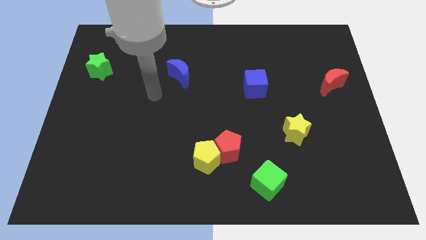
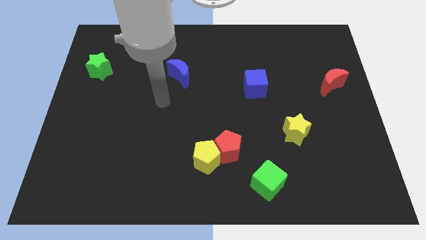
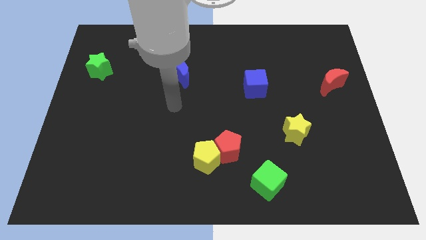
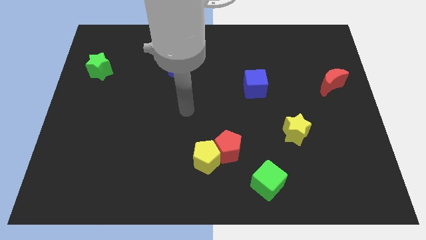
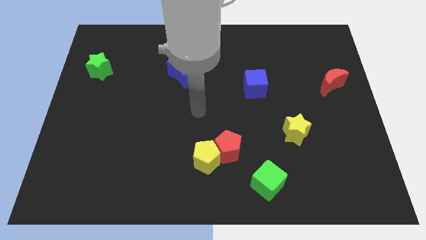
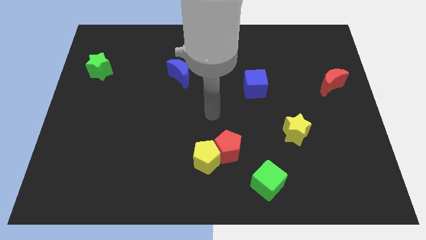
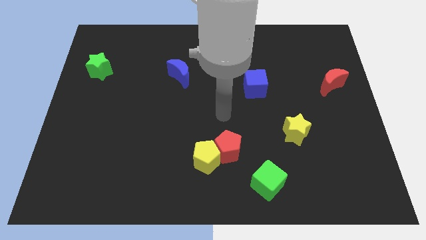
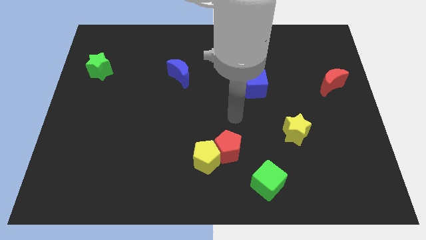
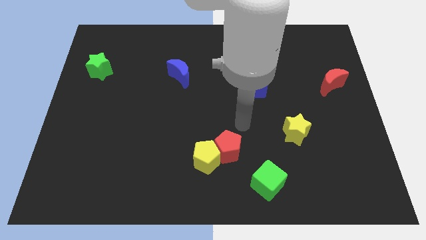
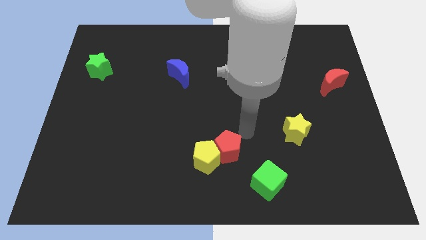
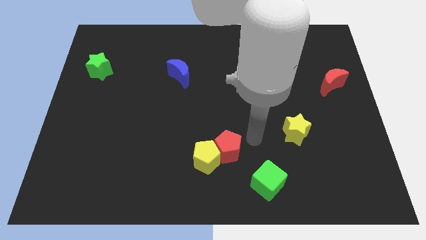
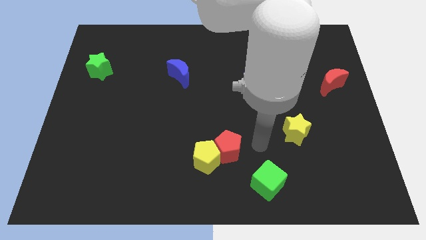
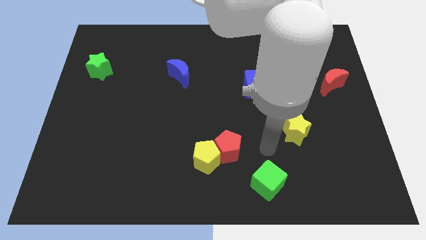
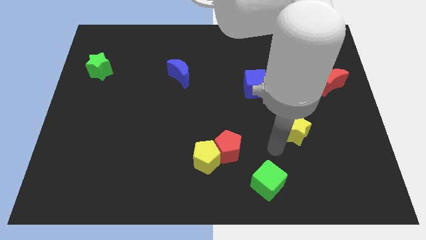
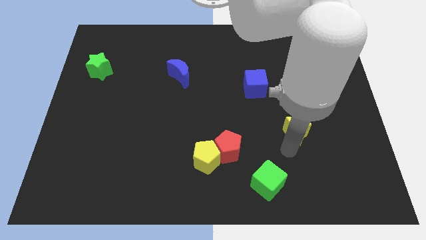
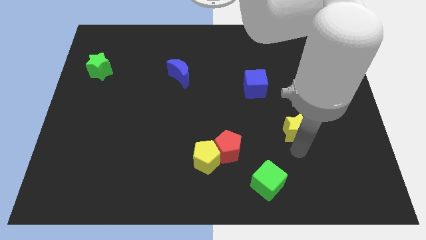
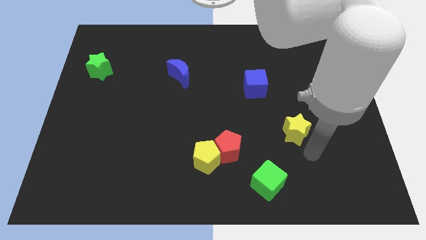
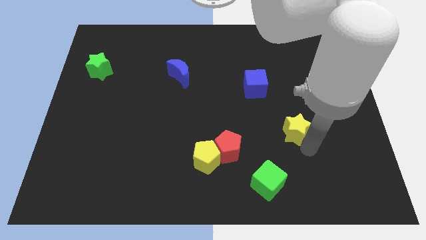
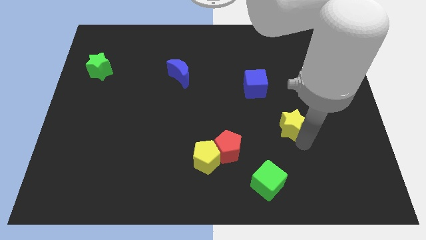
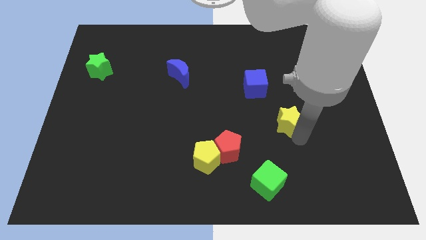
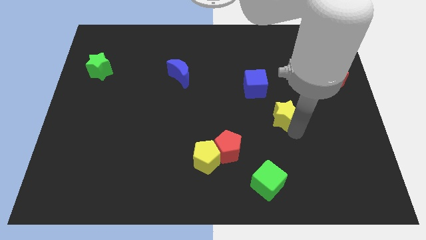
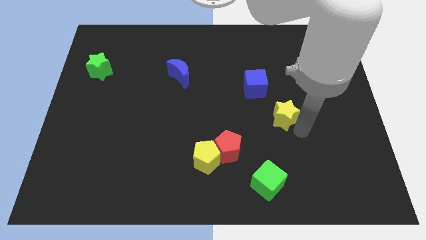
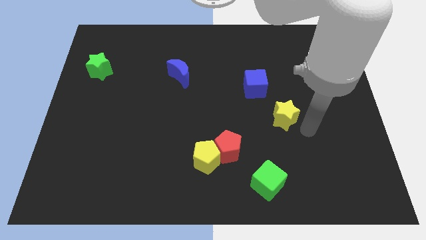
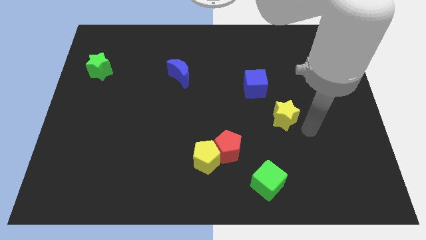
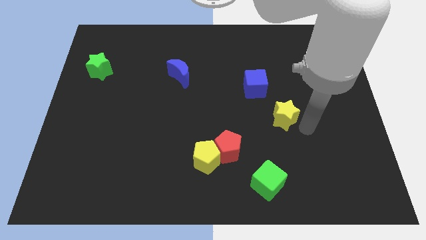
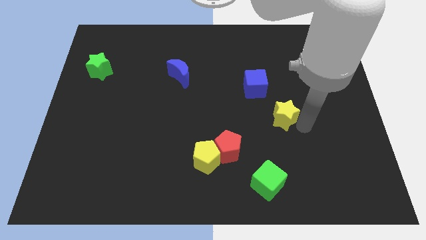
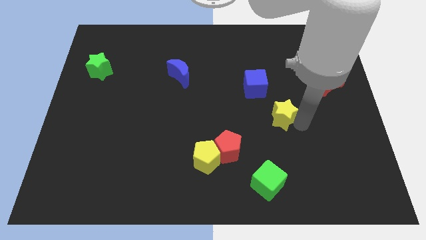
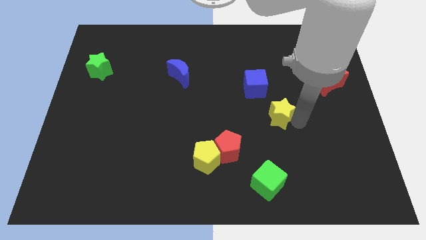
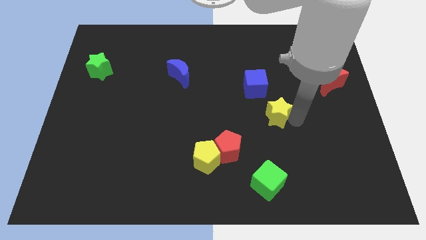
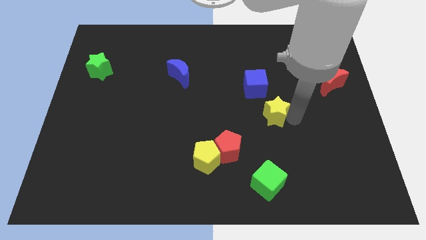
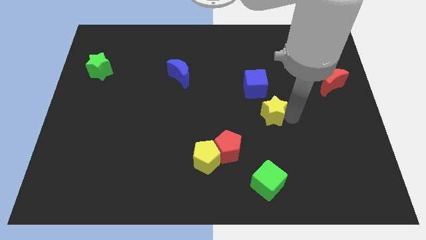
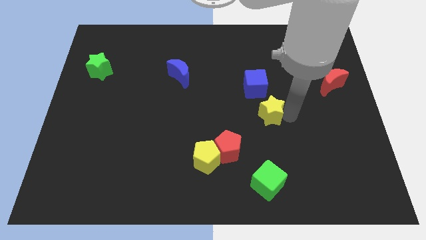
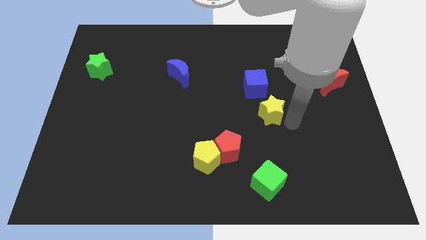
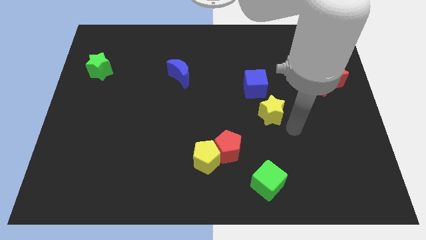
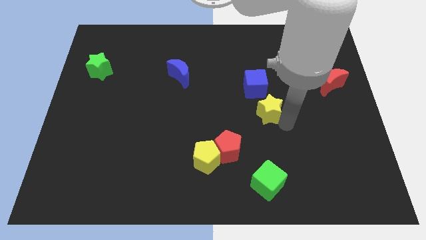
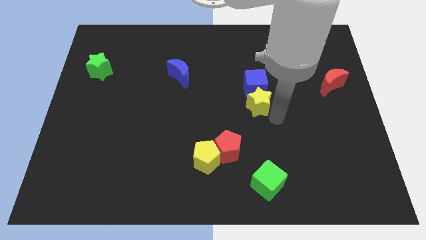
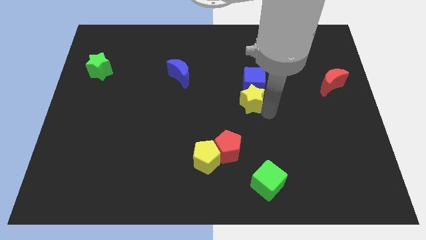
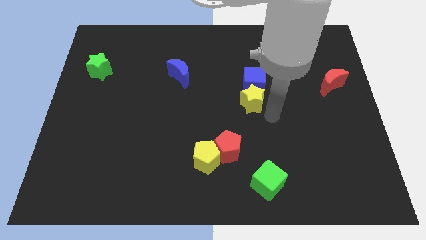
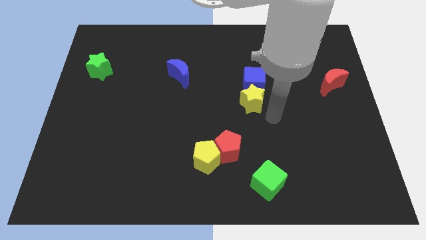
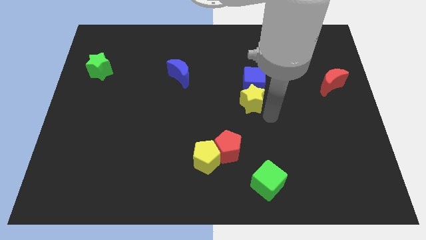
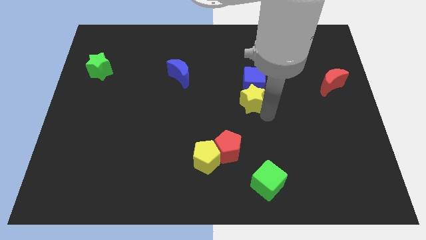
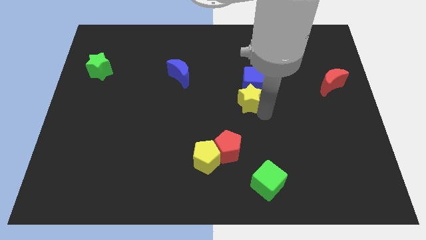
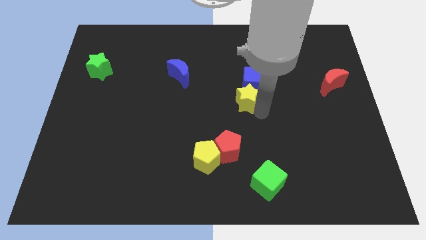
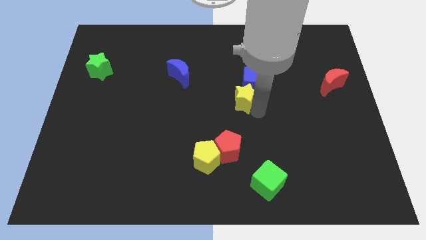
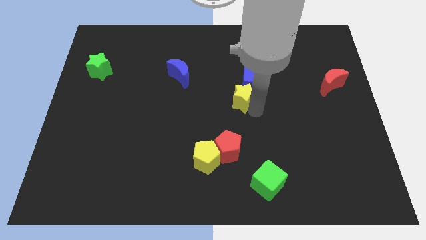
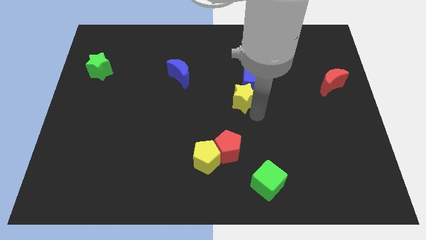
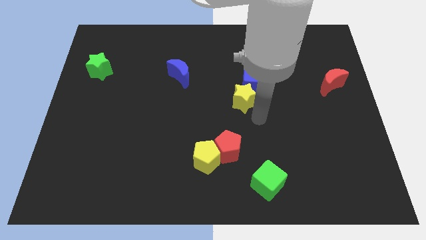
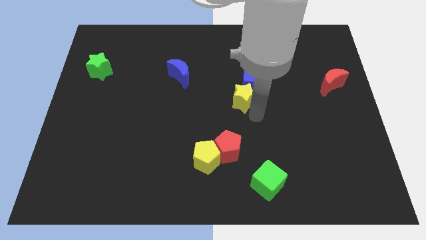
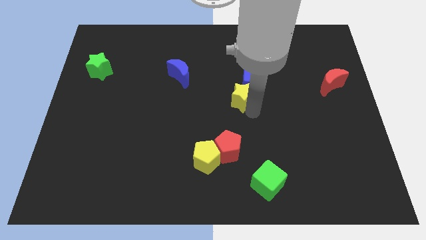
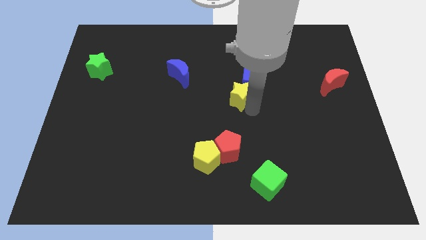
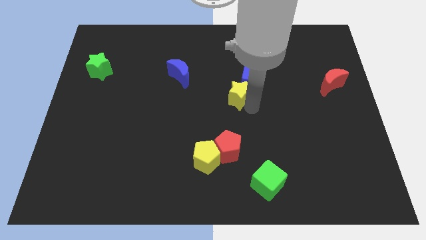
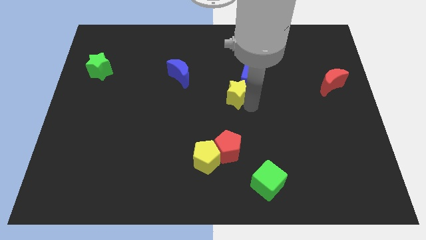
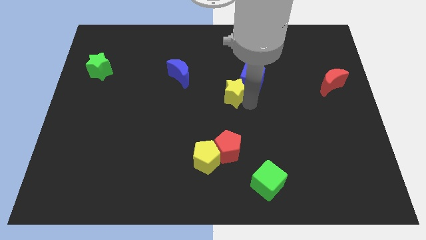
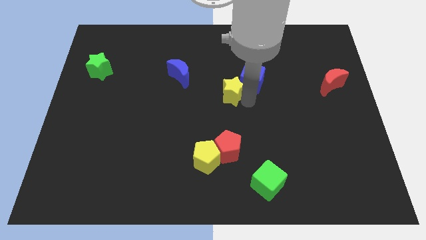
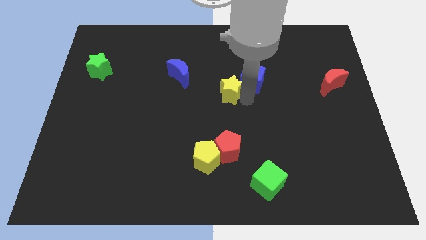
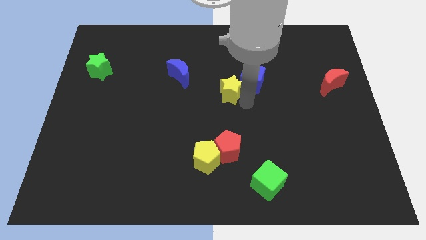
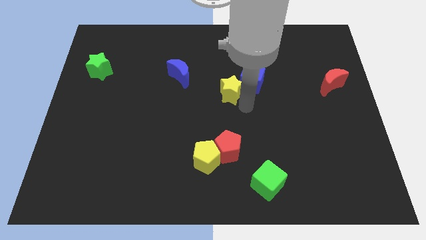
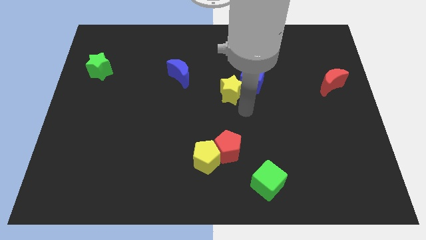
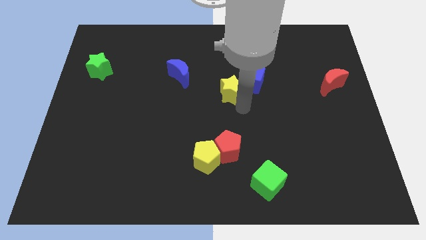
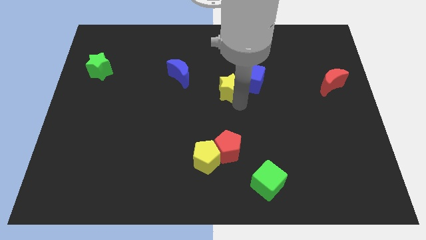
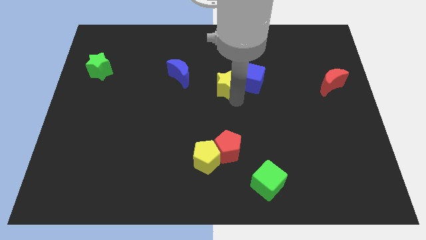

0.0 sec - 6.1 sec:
move the yellow star up and then left

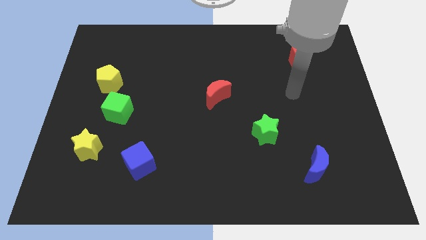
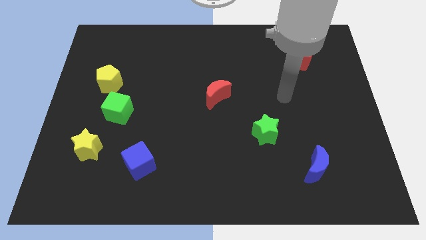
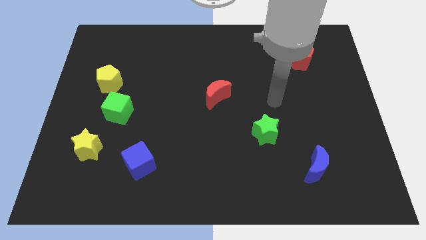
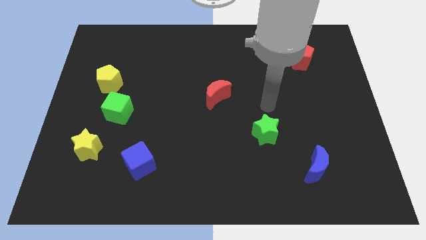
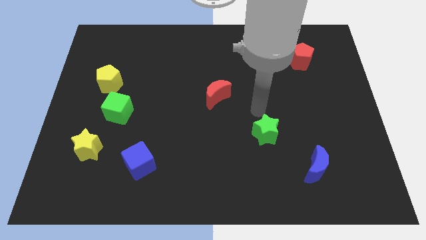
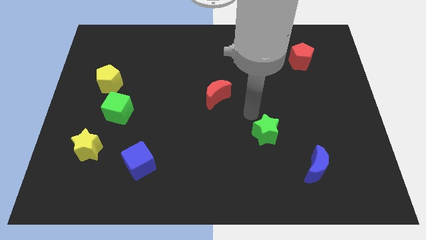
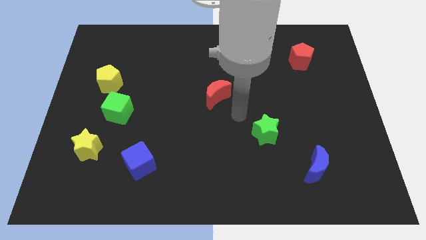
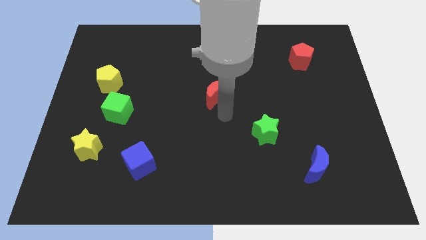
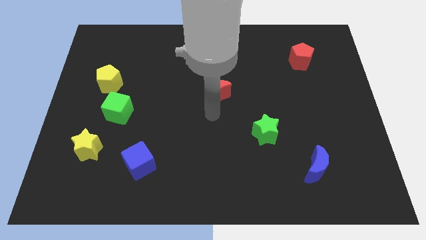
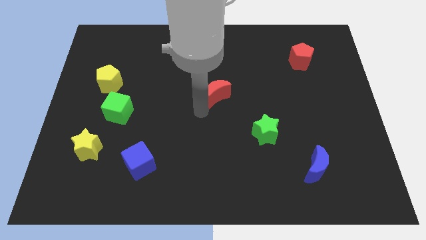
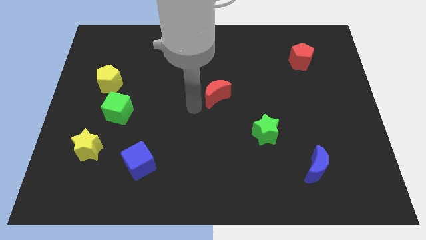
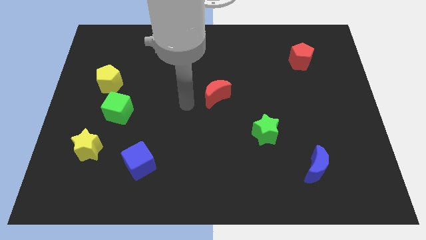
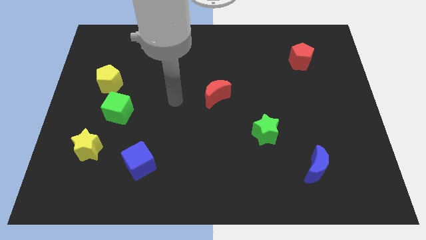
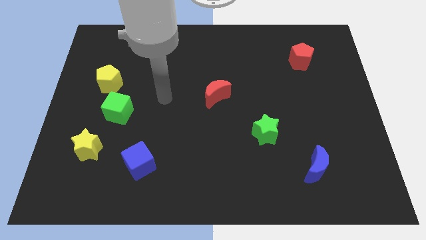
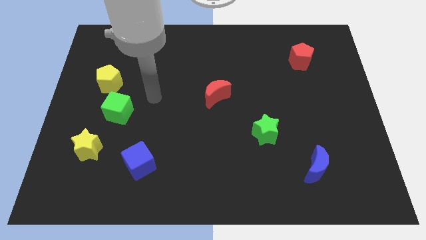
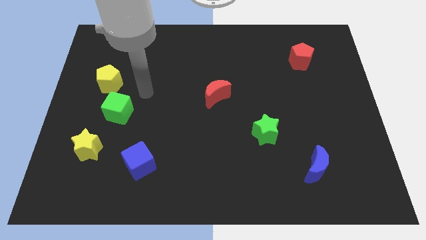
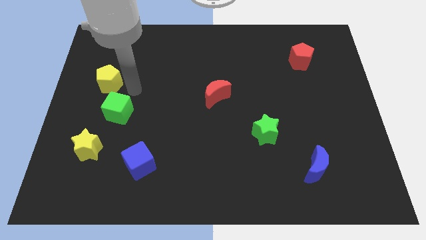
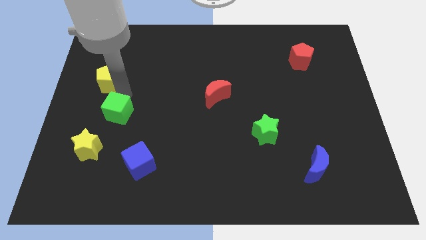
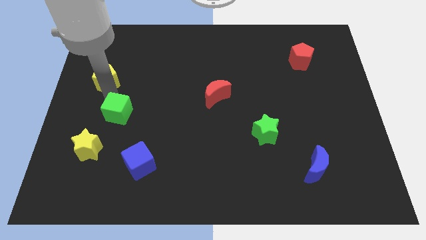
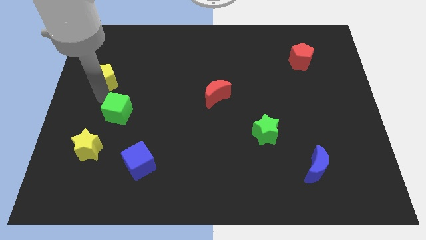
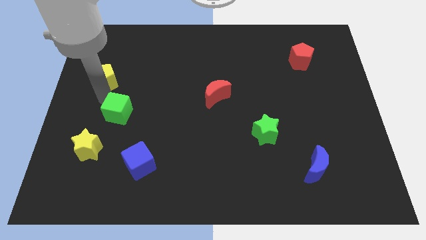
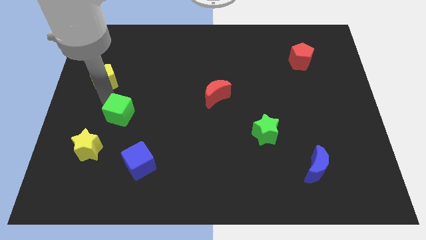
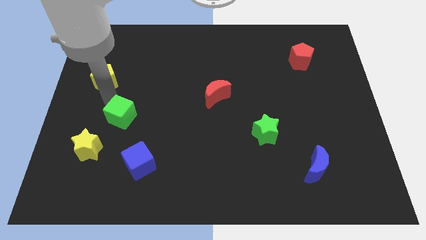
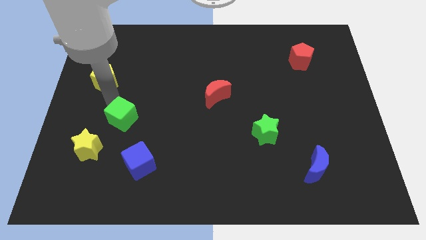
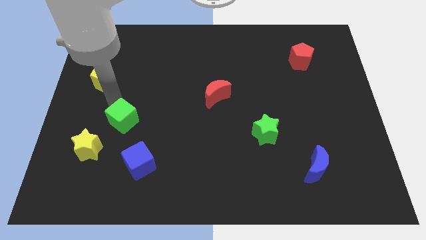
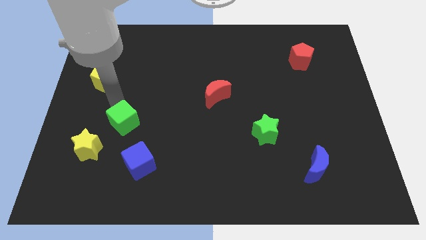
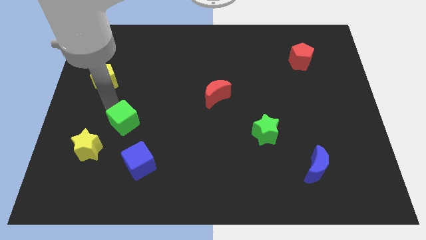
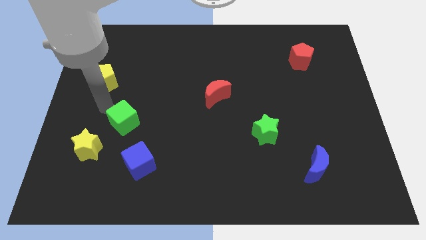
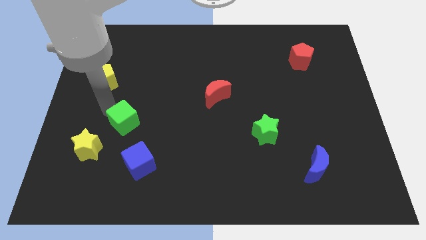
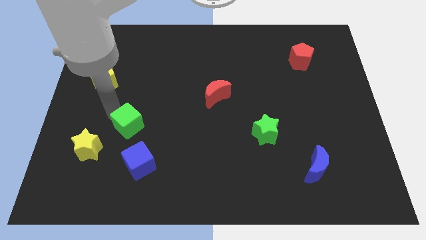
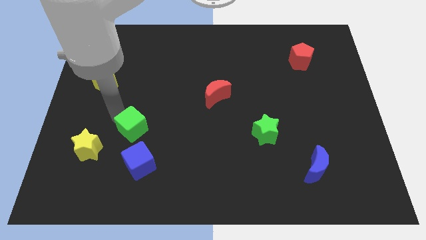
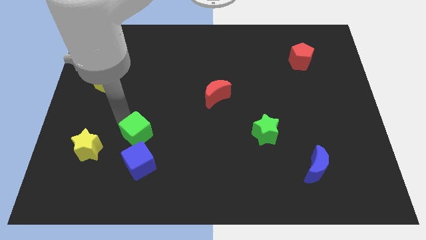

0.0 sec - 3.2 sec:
slightly move the green cube down and then right
